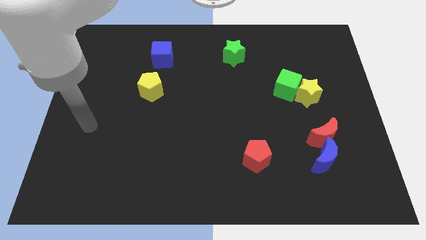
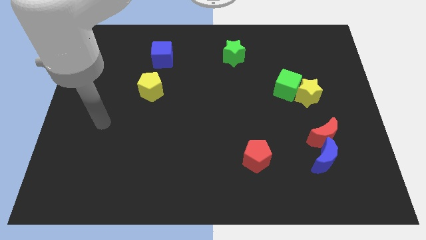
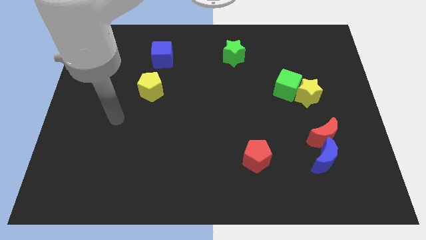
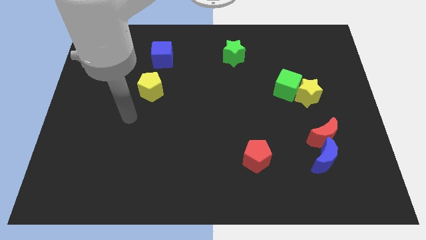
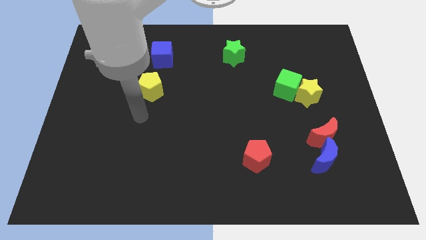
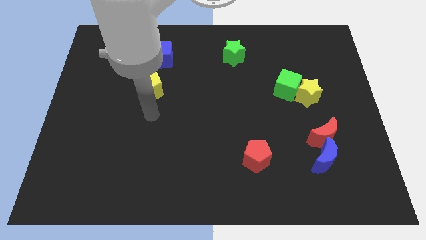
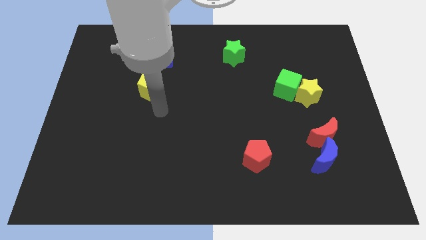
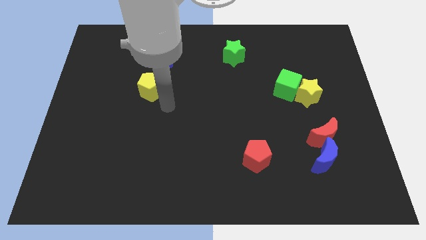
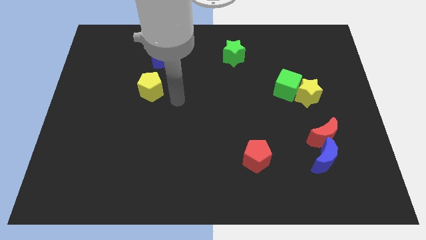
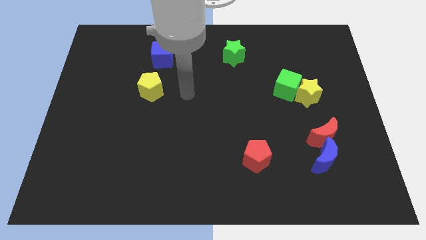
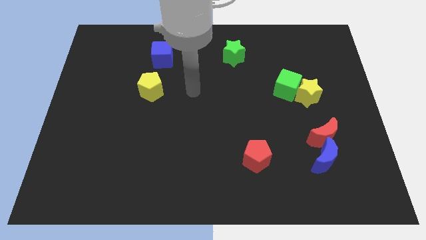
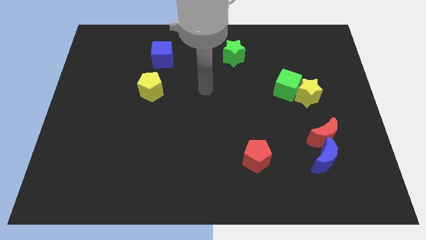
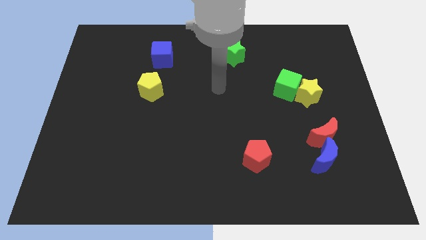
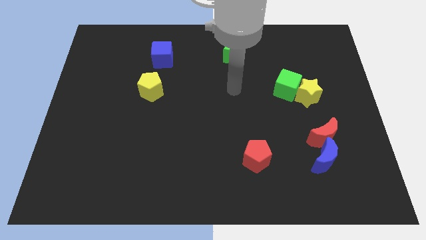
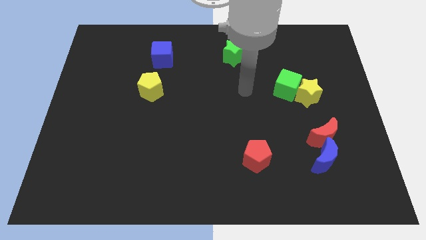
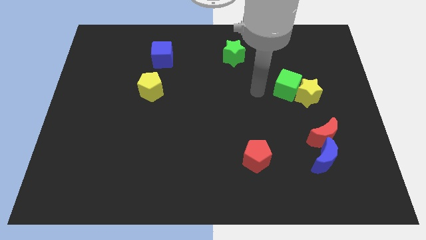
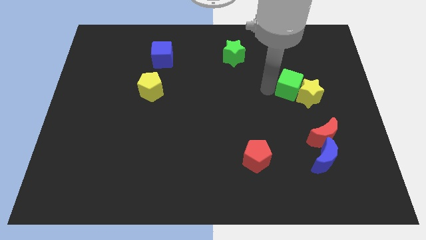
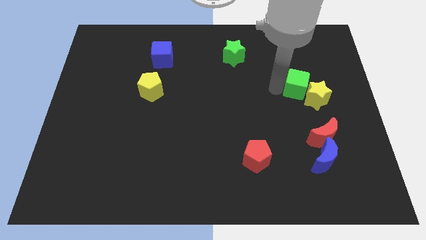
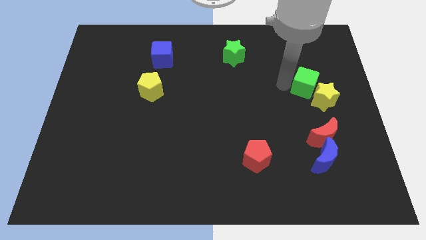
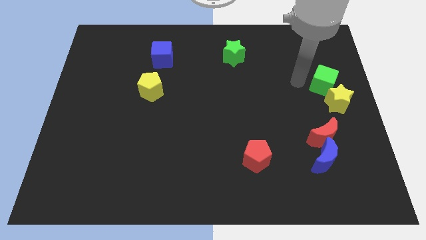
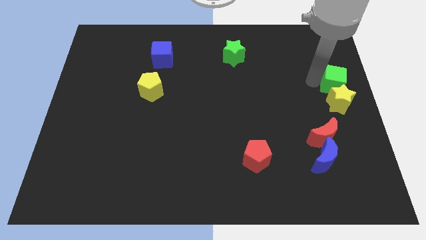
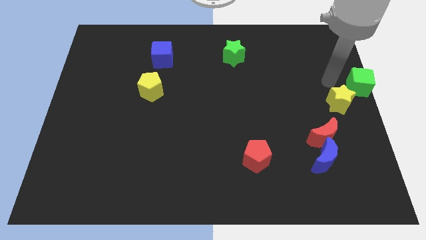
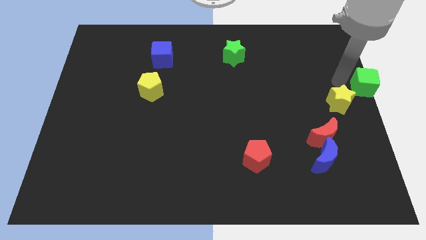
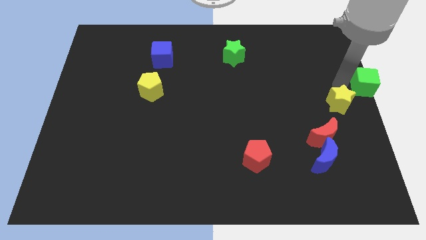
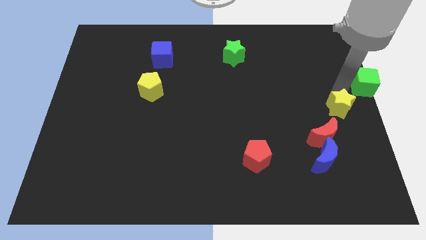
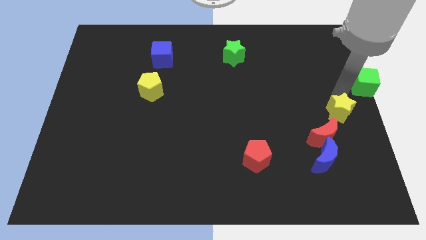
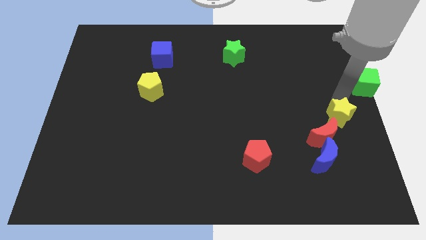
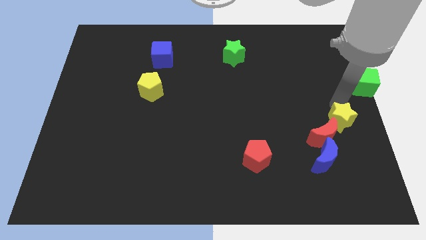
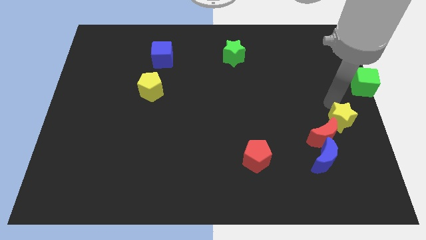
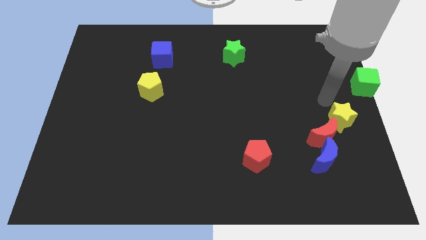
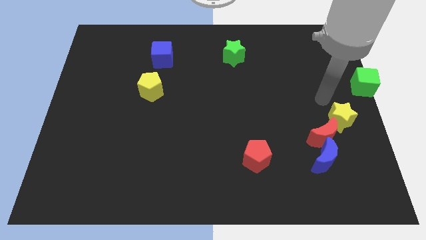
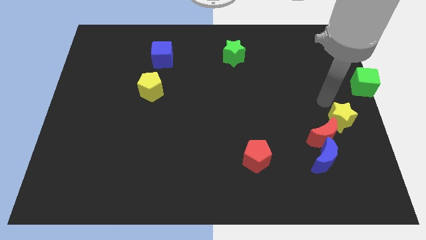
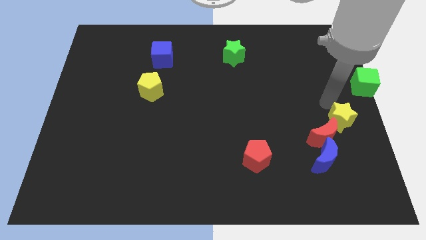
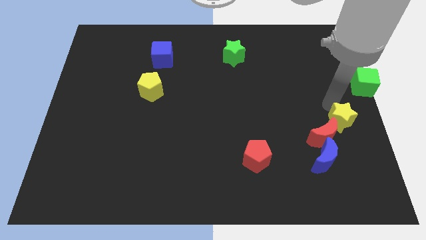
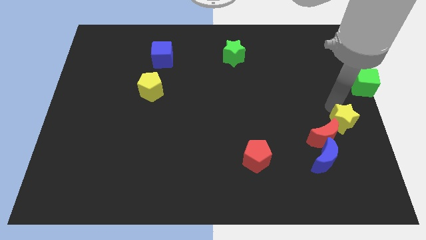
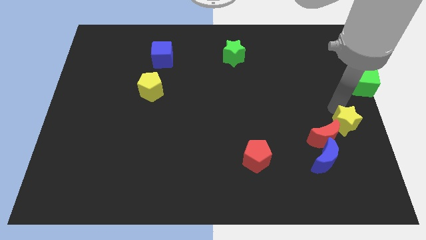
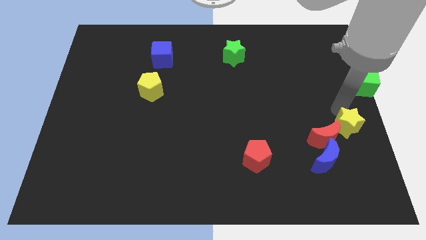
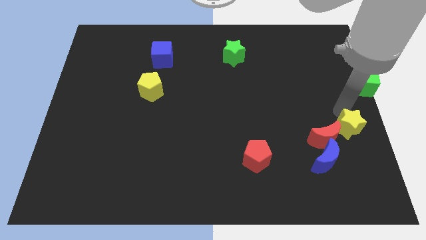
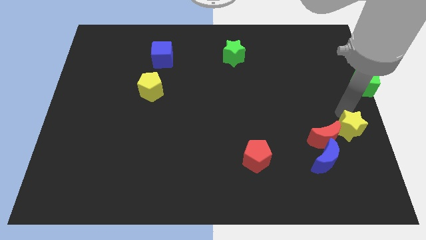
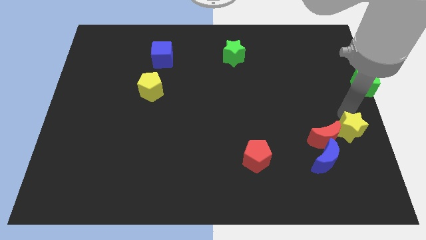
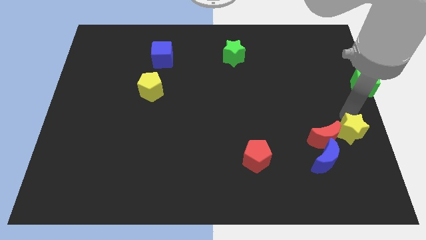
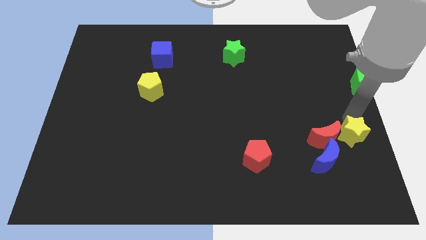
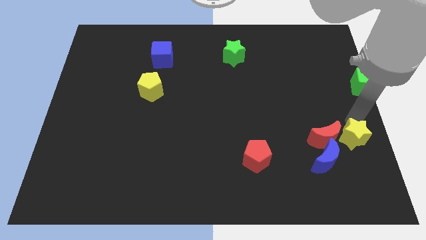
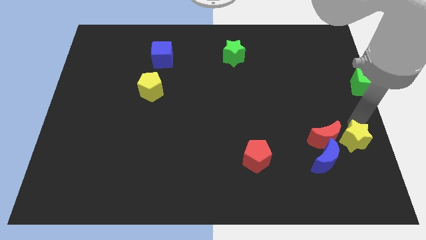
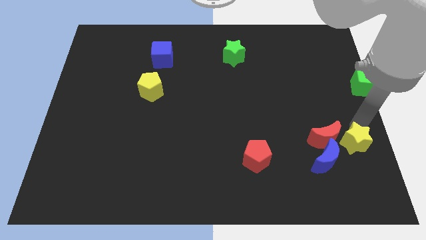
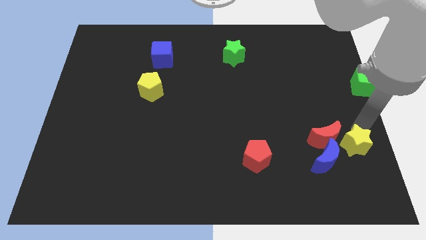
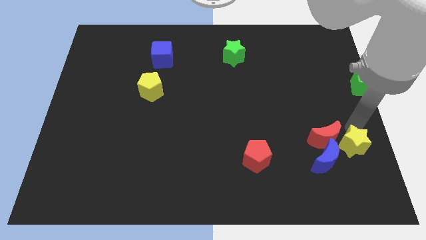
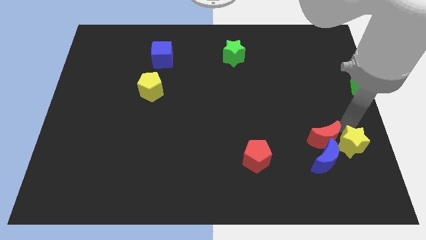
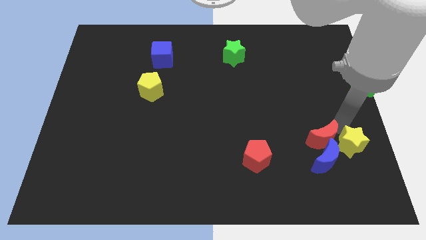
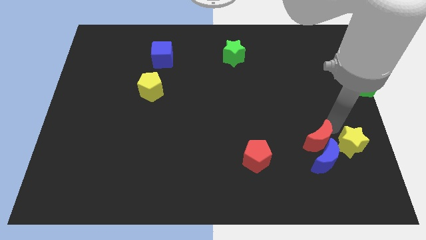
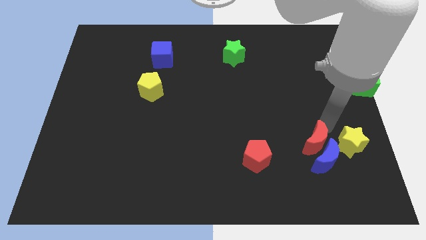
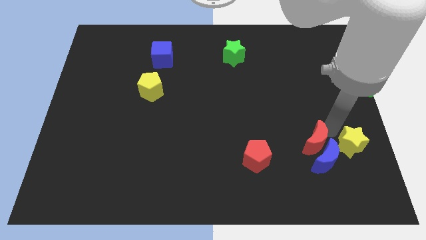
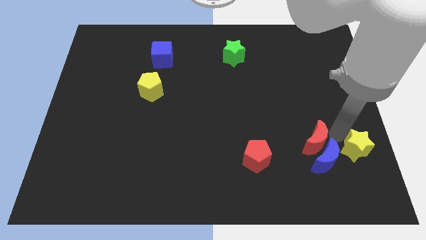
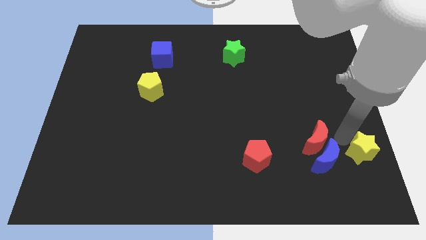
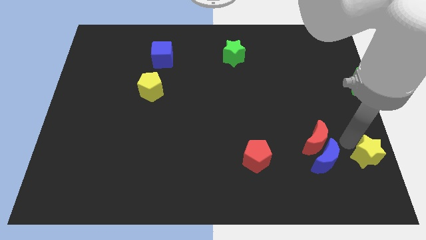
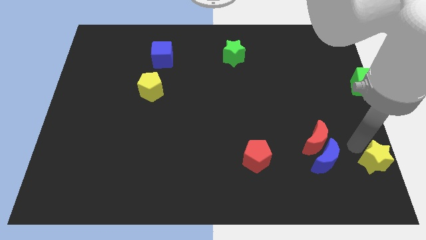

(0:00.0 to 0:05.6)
push the yellow star to the bottom right

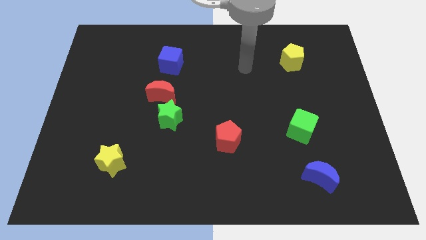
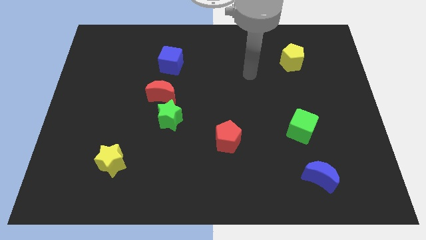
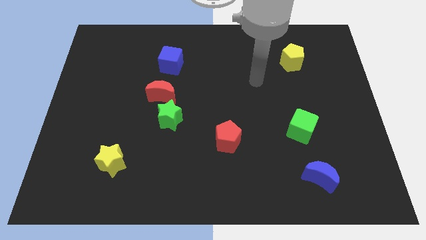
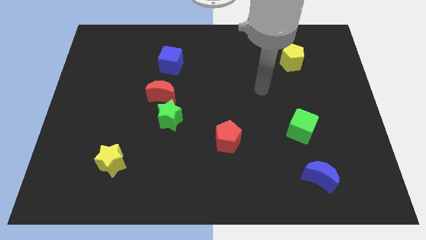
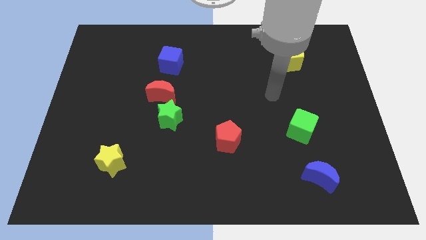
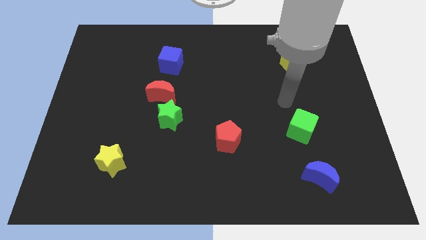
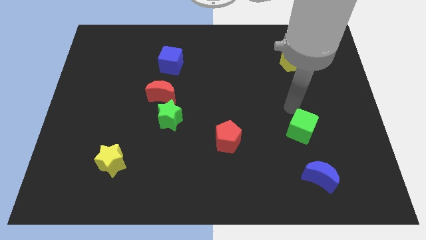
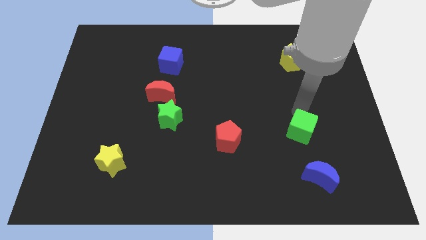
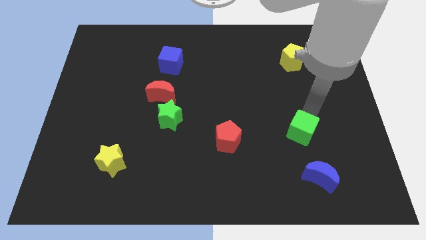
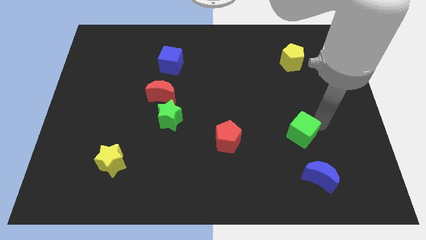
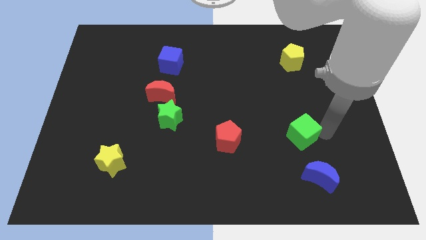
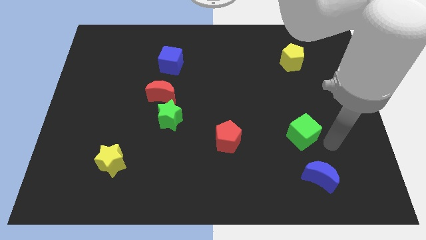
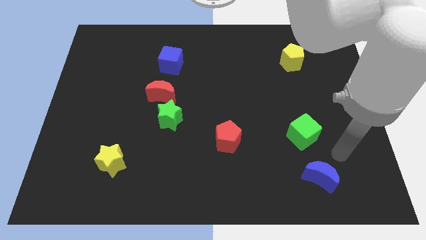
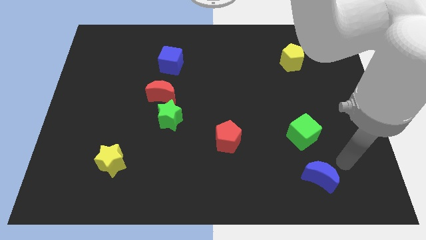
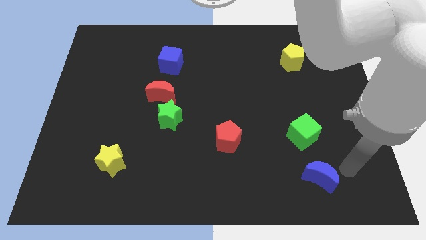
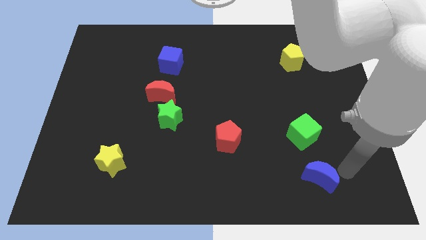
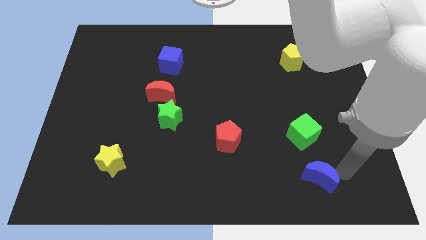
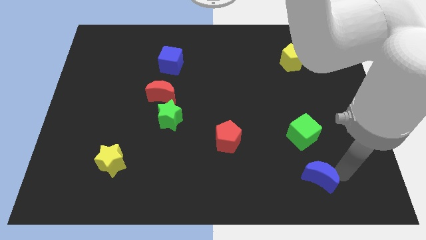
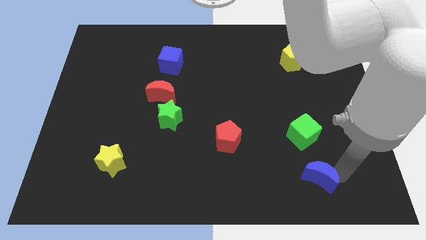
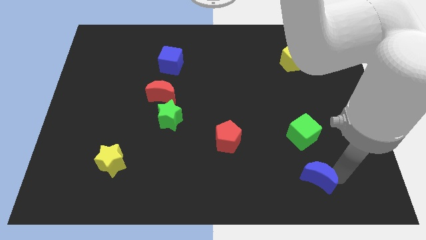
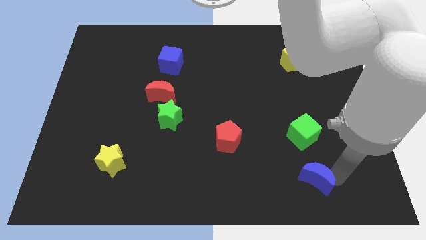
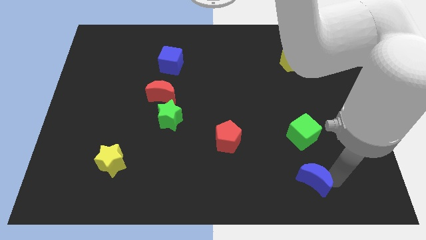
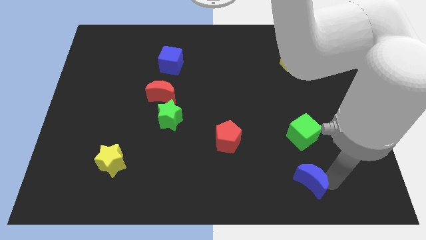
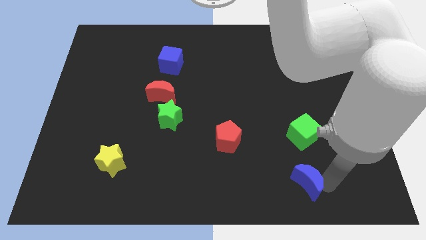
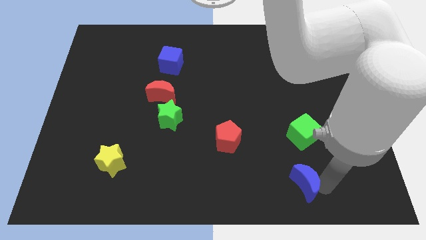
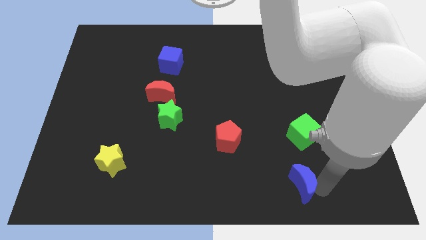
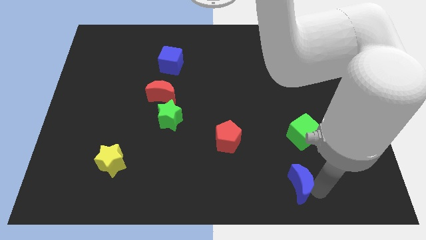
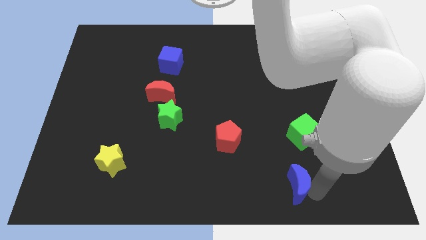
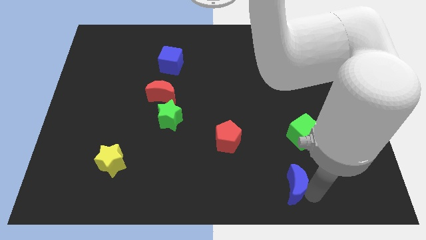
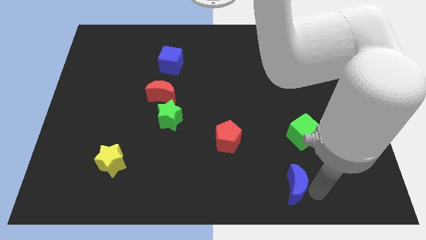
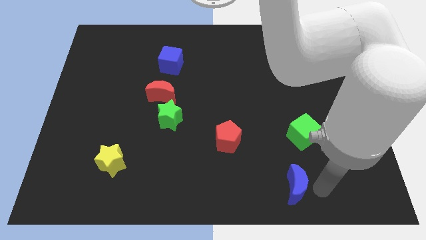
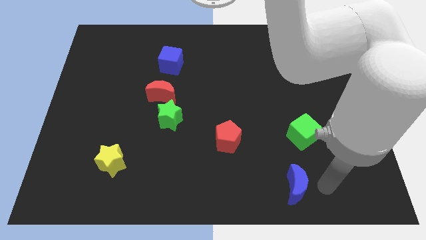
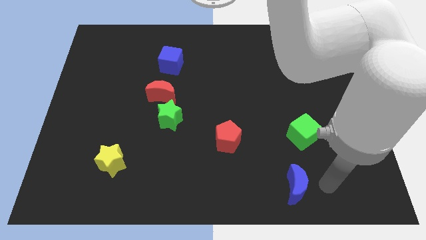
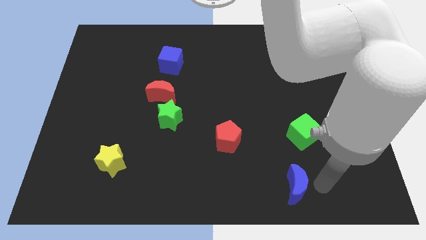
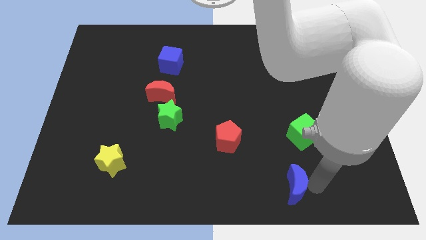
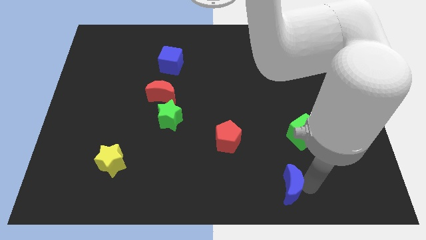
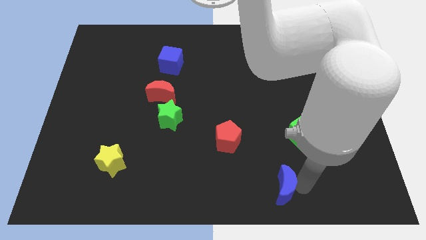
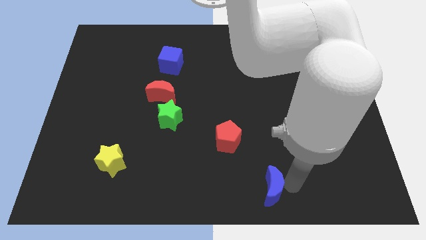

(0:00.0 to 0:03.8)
push the blue moon to the bottom side
